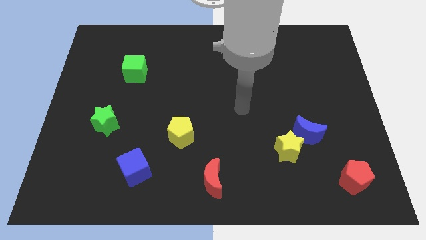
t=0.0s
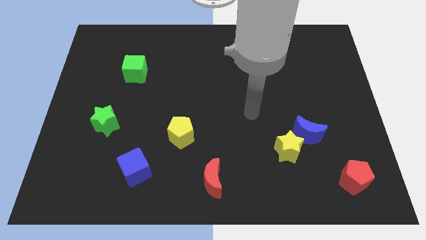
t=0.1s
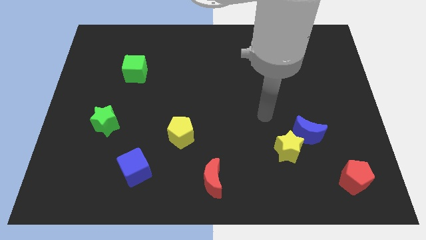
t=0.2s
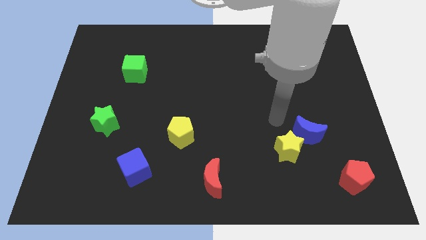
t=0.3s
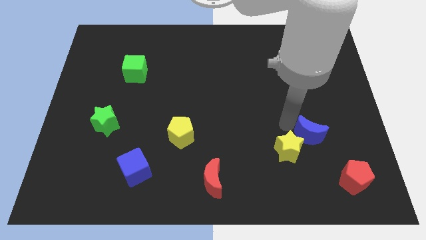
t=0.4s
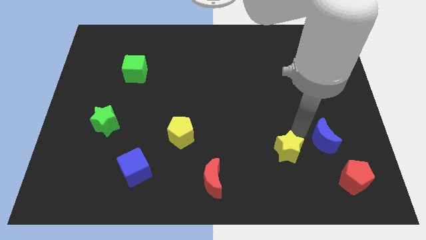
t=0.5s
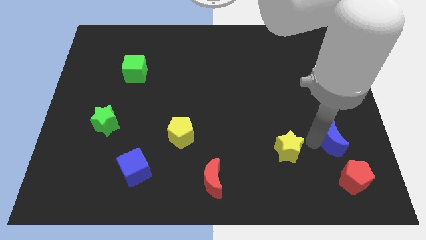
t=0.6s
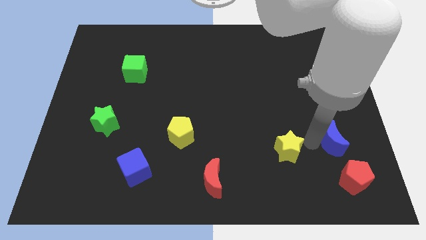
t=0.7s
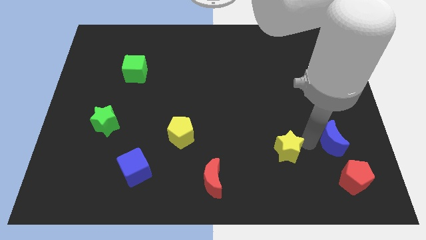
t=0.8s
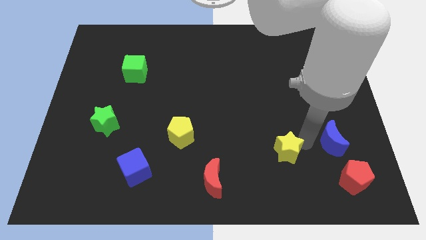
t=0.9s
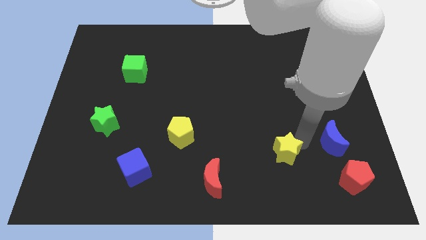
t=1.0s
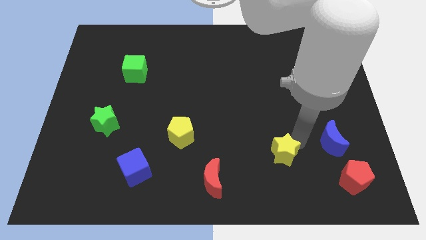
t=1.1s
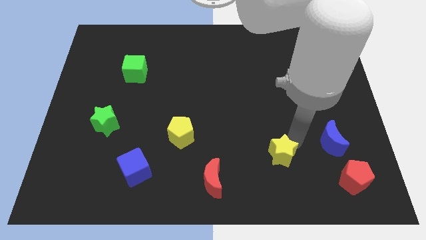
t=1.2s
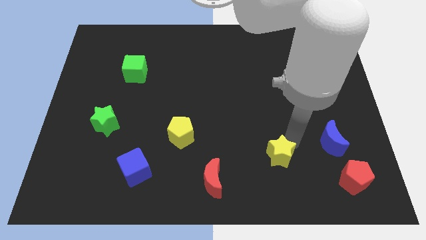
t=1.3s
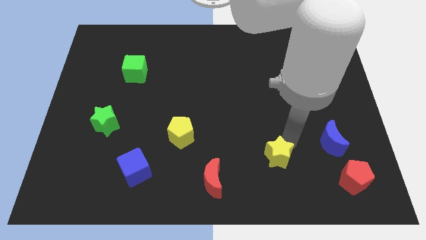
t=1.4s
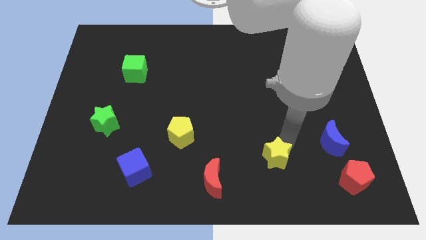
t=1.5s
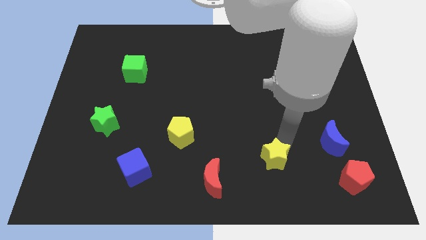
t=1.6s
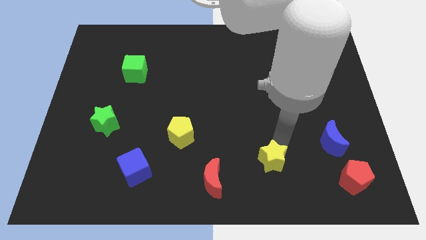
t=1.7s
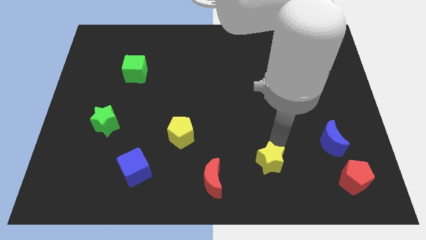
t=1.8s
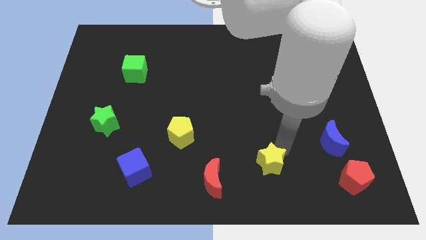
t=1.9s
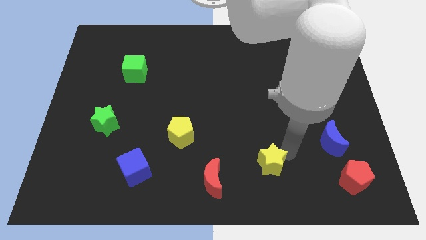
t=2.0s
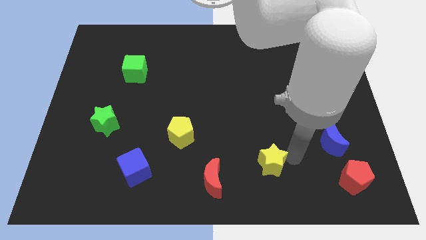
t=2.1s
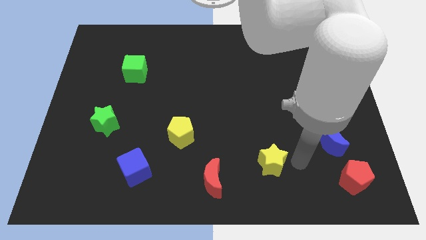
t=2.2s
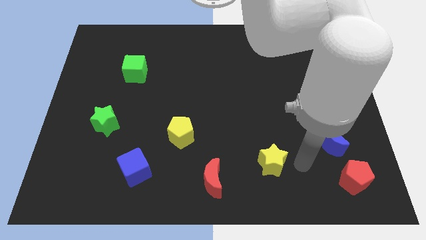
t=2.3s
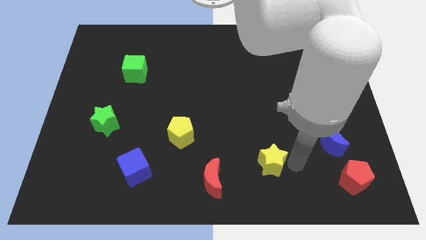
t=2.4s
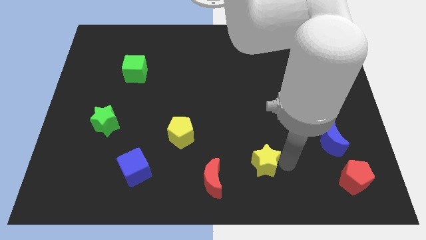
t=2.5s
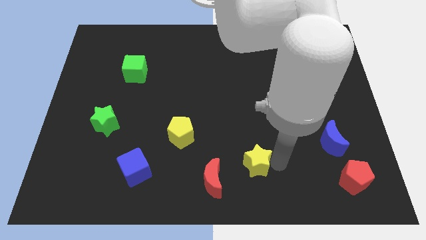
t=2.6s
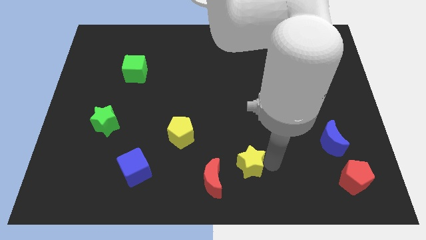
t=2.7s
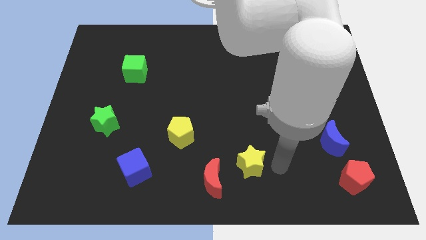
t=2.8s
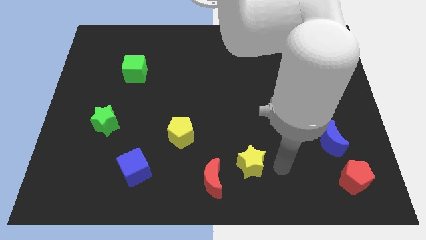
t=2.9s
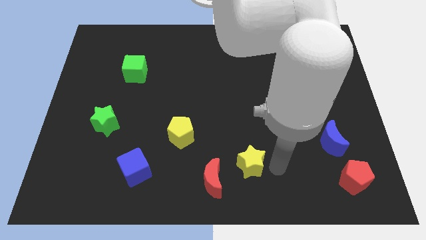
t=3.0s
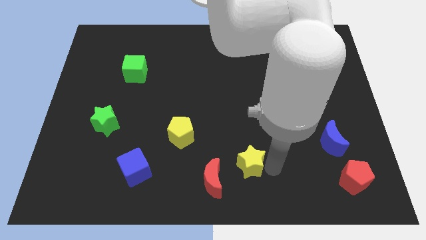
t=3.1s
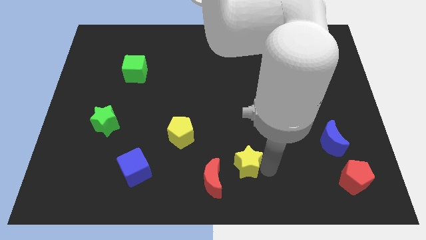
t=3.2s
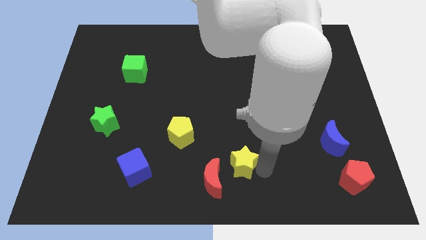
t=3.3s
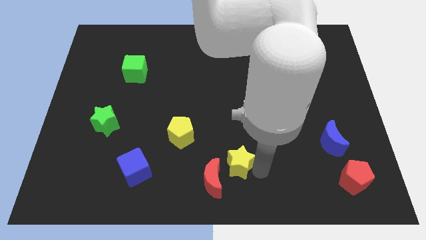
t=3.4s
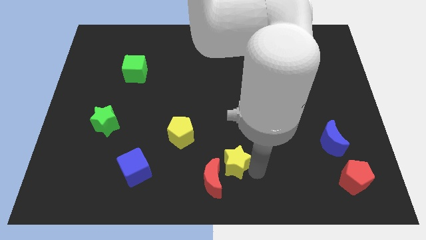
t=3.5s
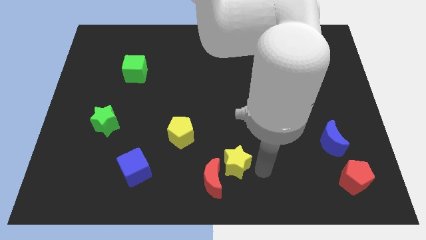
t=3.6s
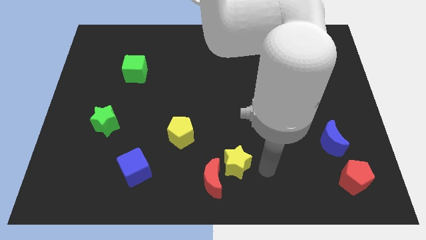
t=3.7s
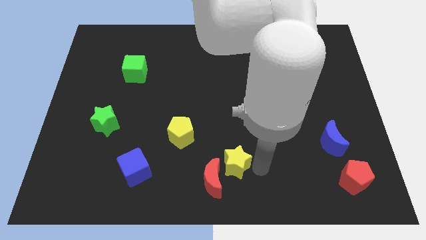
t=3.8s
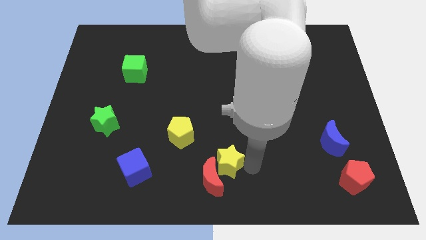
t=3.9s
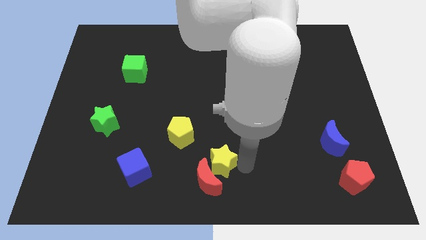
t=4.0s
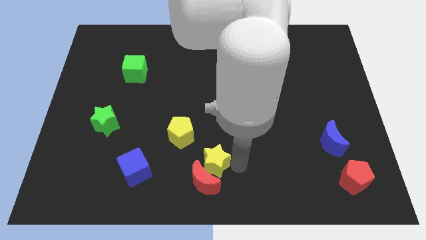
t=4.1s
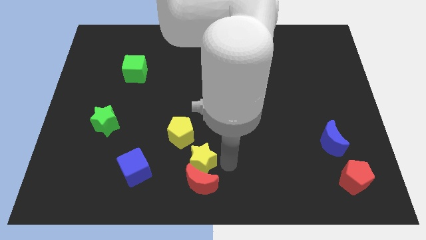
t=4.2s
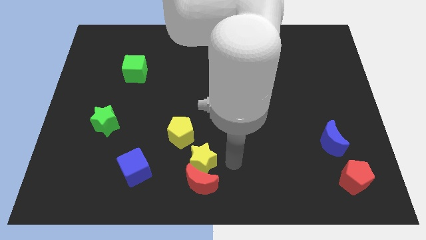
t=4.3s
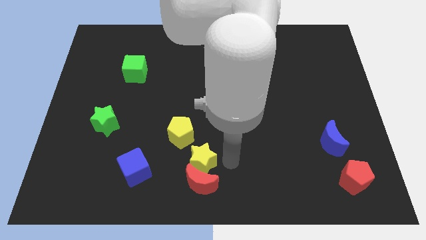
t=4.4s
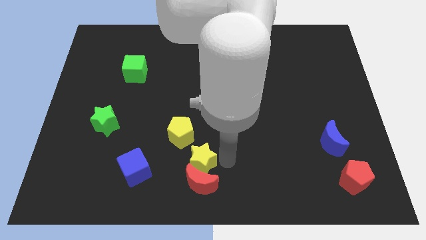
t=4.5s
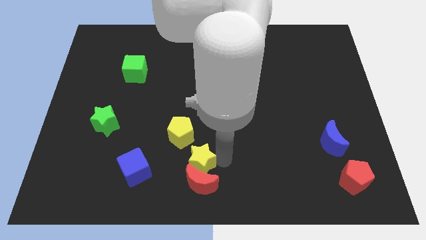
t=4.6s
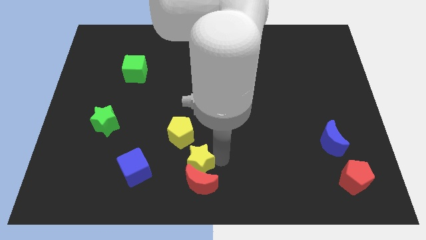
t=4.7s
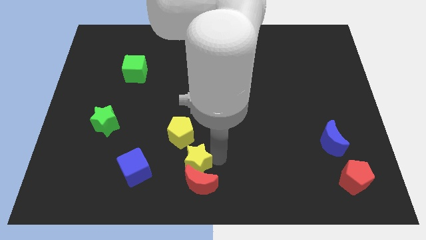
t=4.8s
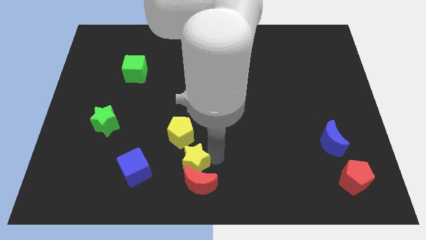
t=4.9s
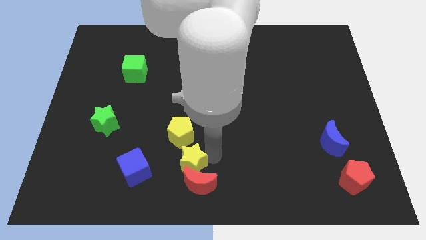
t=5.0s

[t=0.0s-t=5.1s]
move the yellow star left

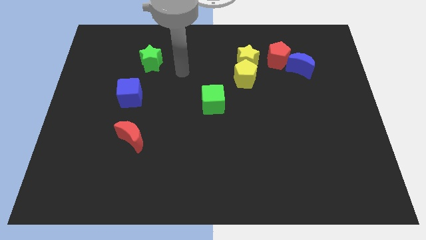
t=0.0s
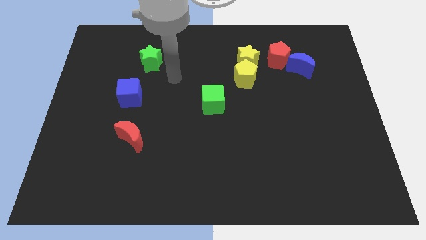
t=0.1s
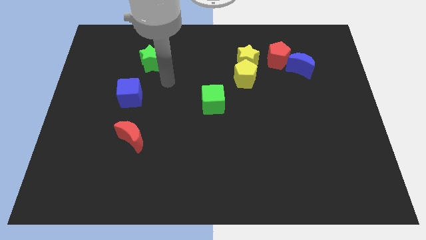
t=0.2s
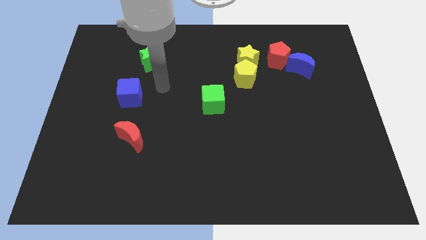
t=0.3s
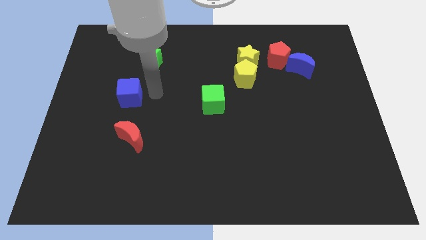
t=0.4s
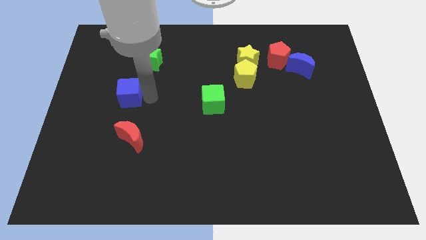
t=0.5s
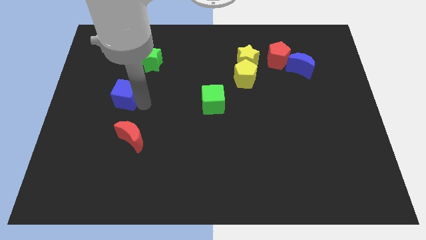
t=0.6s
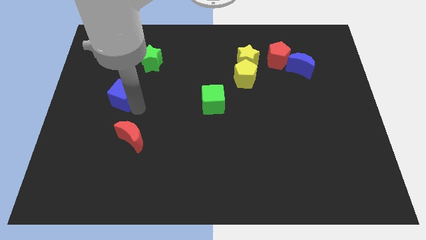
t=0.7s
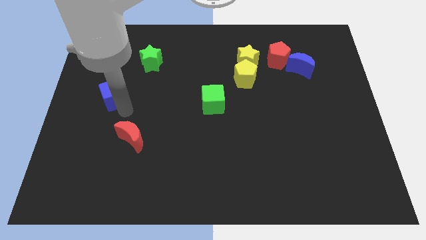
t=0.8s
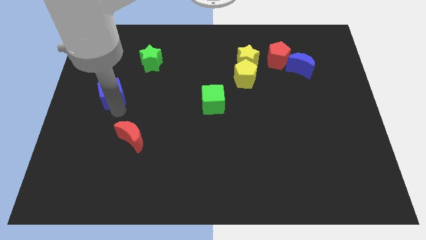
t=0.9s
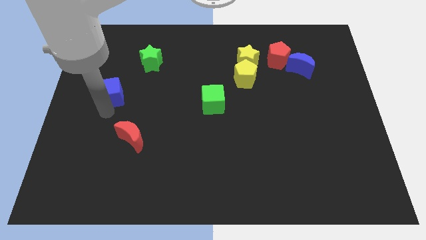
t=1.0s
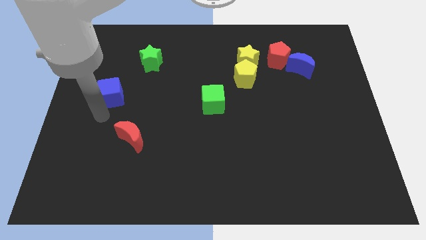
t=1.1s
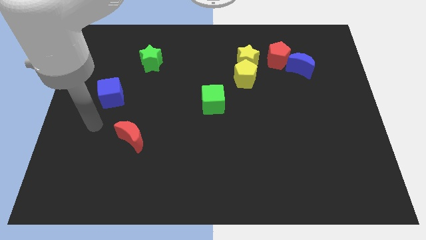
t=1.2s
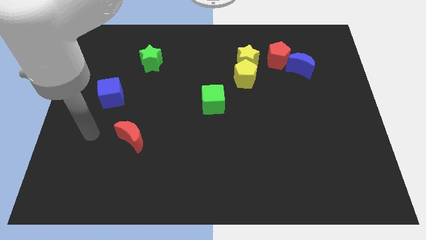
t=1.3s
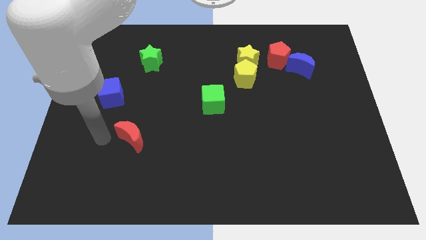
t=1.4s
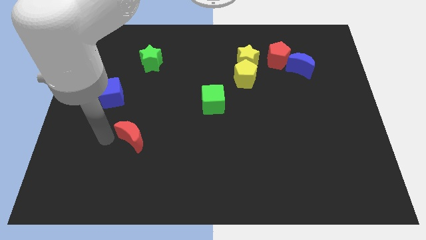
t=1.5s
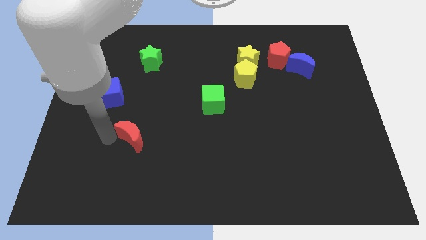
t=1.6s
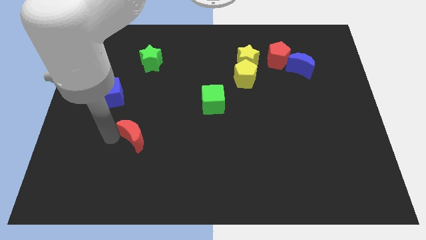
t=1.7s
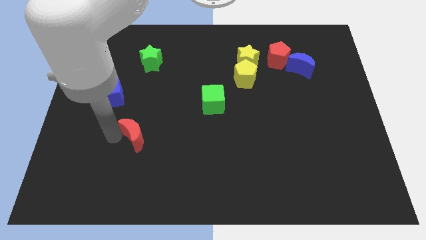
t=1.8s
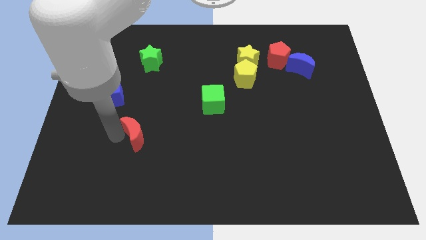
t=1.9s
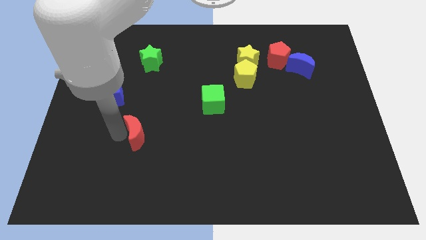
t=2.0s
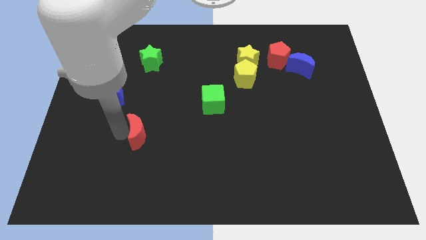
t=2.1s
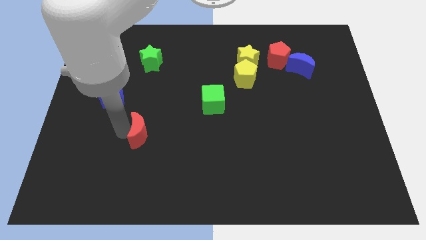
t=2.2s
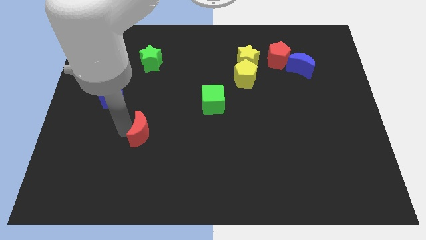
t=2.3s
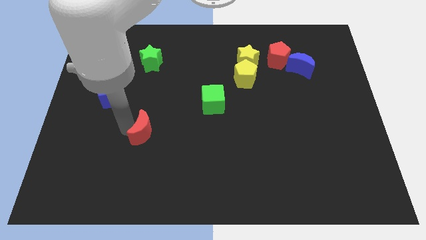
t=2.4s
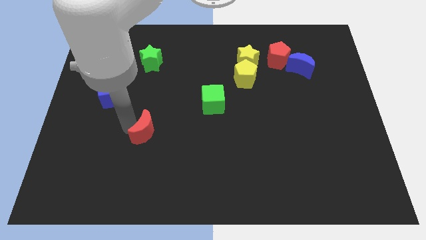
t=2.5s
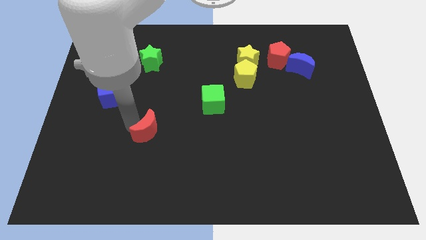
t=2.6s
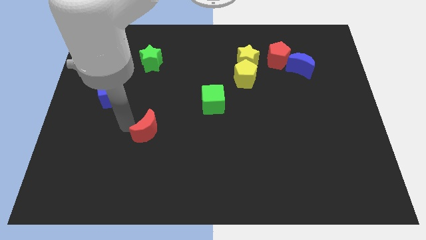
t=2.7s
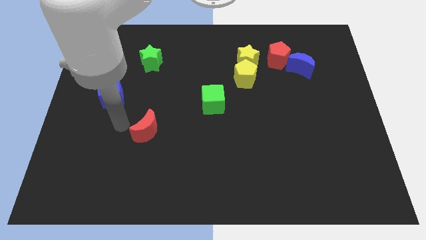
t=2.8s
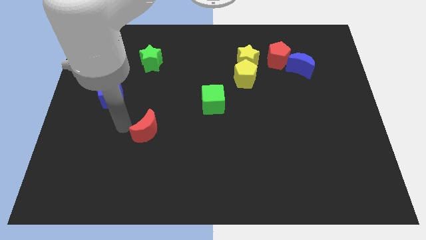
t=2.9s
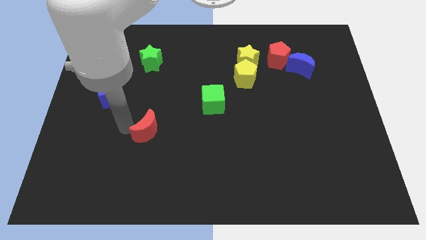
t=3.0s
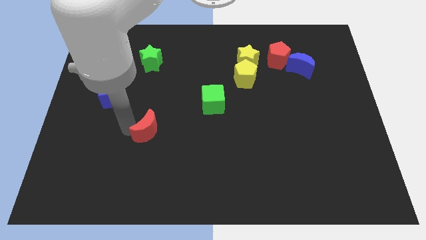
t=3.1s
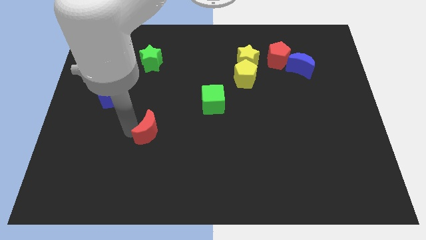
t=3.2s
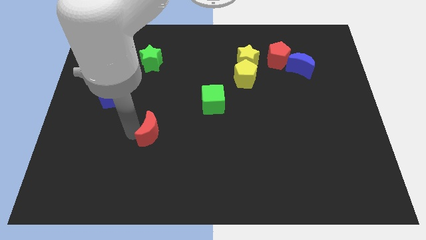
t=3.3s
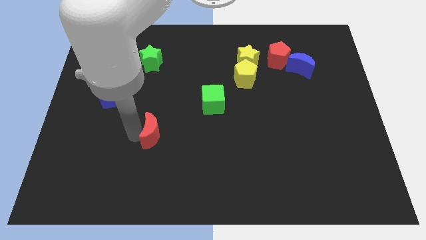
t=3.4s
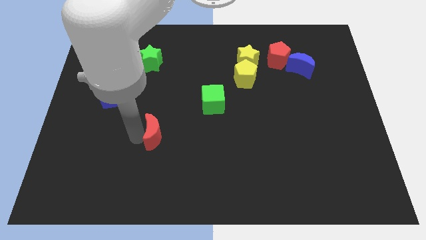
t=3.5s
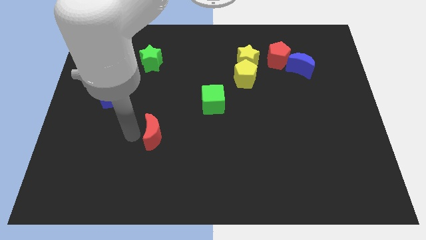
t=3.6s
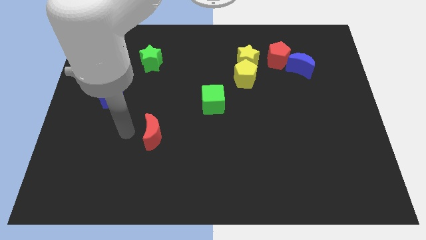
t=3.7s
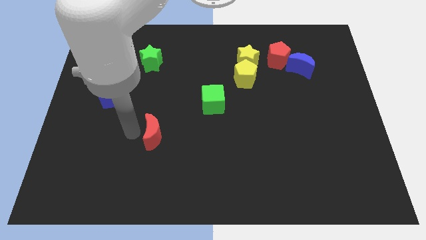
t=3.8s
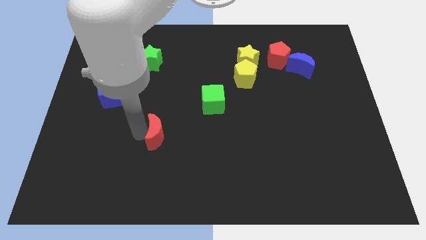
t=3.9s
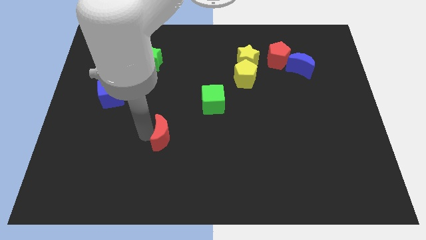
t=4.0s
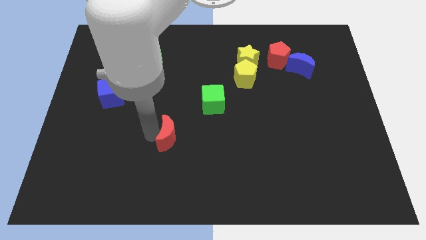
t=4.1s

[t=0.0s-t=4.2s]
slightly slide the red moon right
